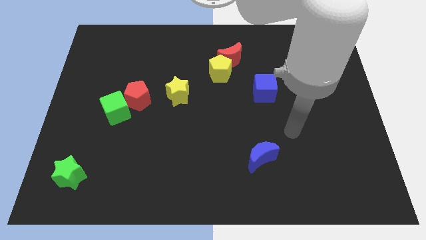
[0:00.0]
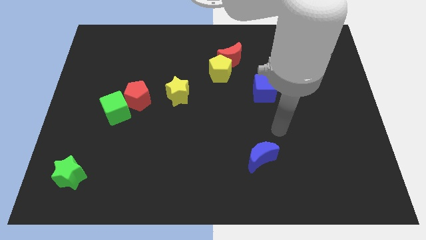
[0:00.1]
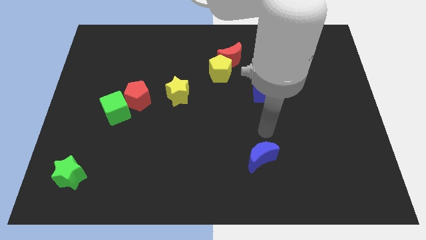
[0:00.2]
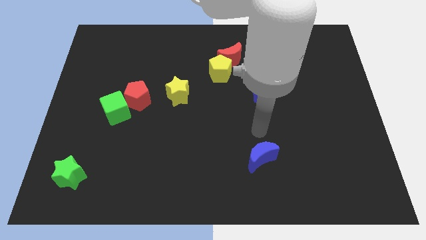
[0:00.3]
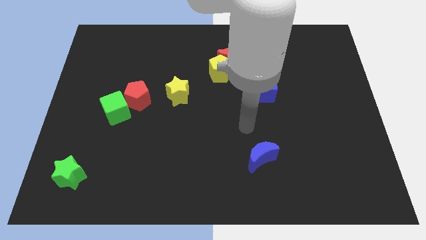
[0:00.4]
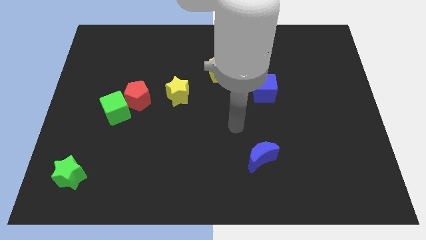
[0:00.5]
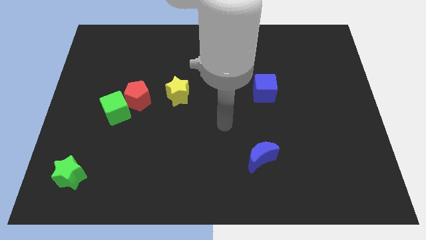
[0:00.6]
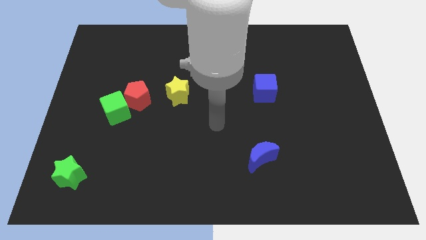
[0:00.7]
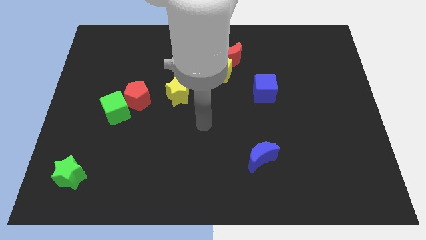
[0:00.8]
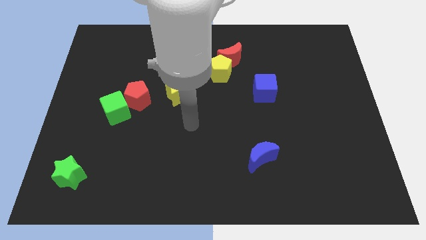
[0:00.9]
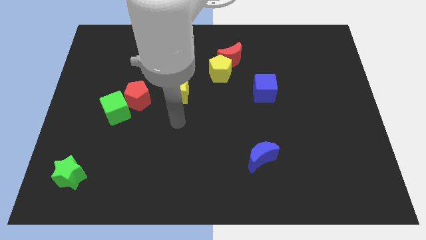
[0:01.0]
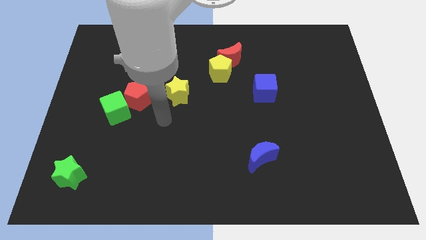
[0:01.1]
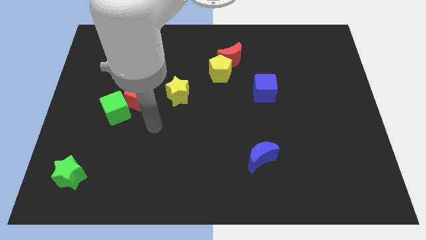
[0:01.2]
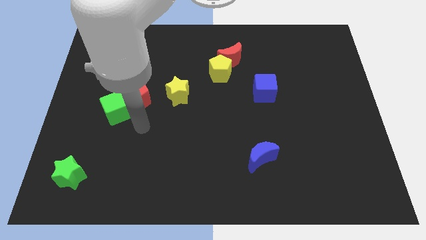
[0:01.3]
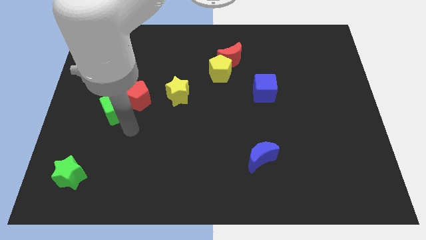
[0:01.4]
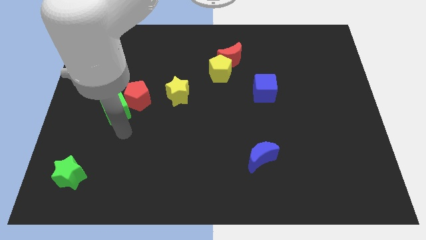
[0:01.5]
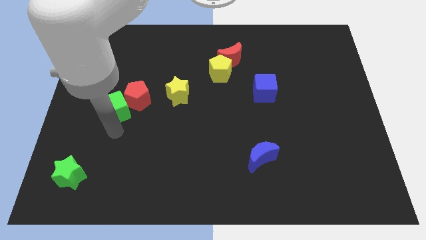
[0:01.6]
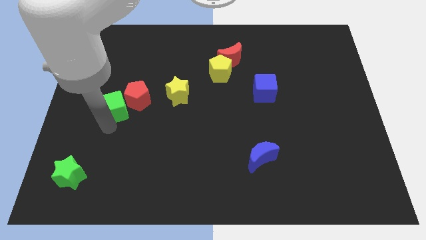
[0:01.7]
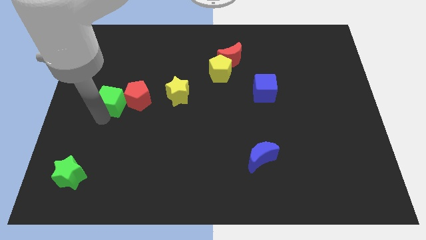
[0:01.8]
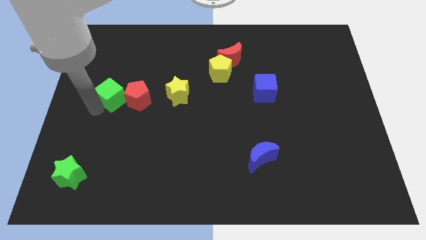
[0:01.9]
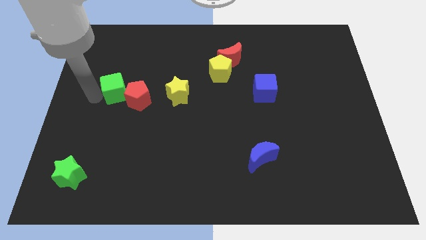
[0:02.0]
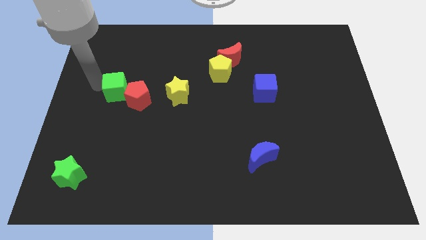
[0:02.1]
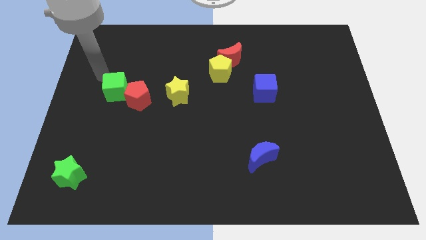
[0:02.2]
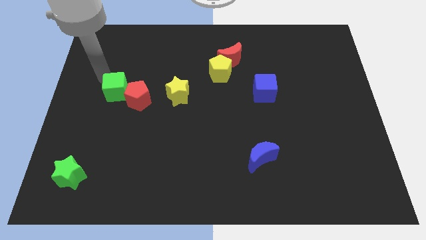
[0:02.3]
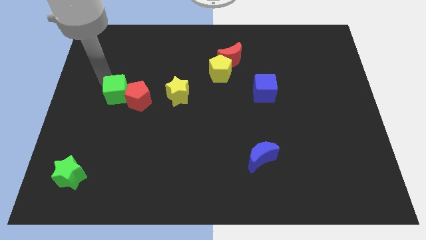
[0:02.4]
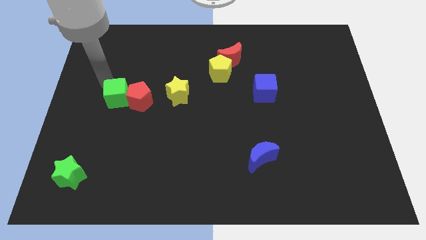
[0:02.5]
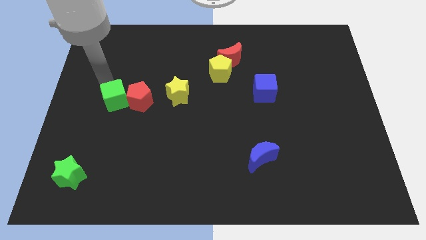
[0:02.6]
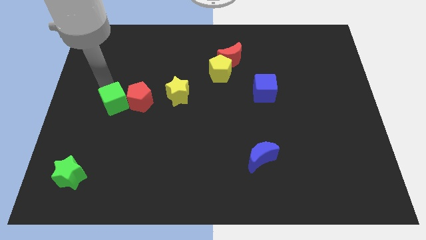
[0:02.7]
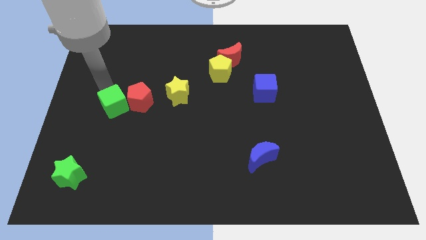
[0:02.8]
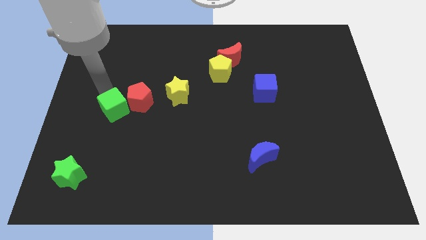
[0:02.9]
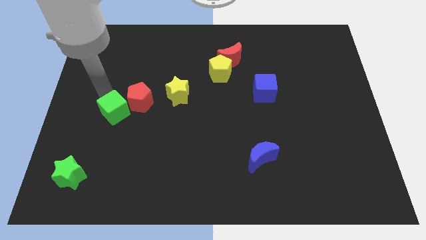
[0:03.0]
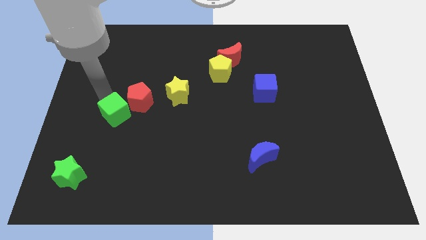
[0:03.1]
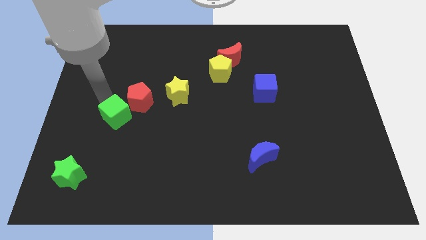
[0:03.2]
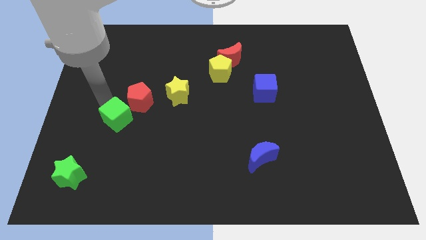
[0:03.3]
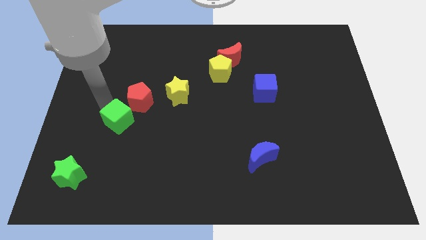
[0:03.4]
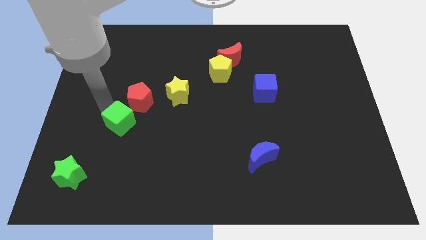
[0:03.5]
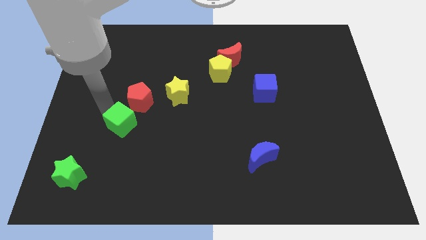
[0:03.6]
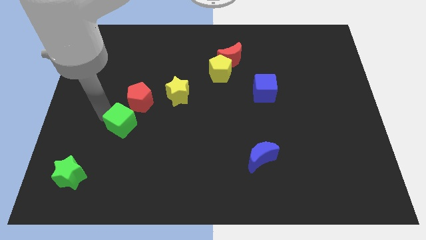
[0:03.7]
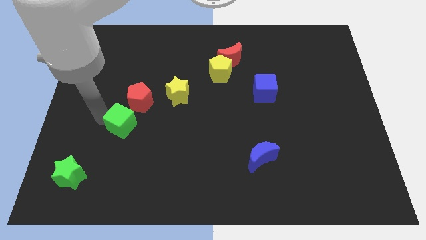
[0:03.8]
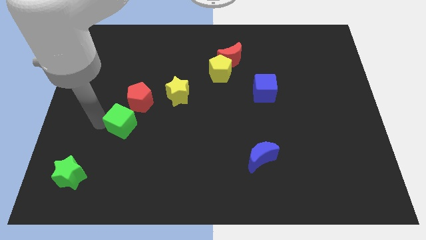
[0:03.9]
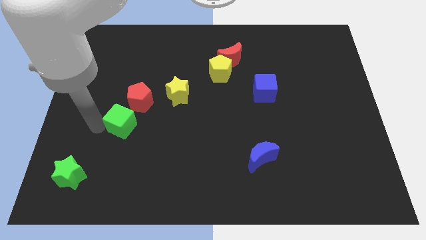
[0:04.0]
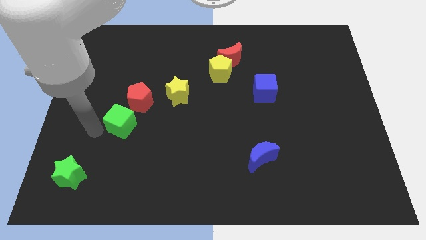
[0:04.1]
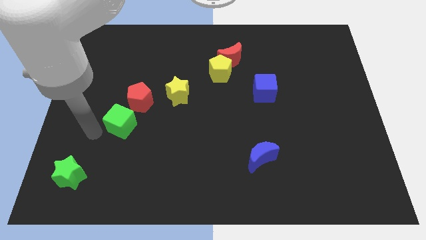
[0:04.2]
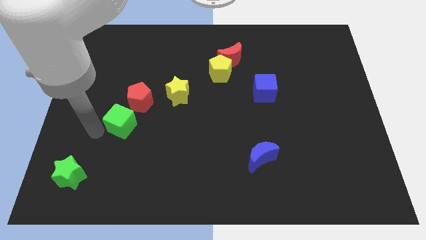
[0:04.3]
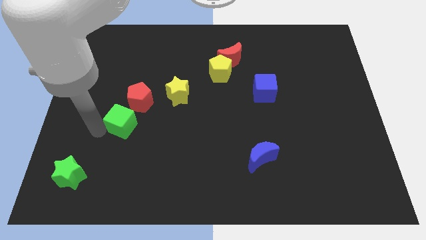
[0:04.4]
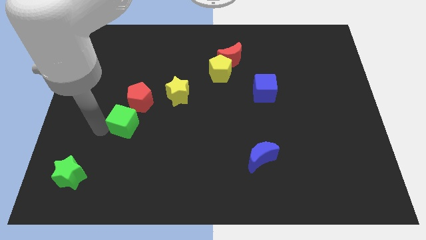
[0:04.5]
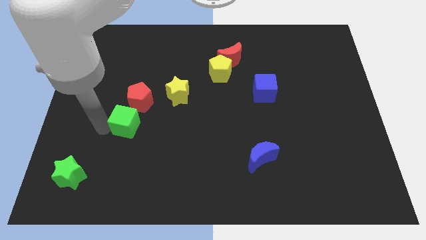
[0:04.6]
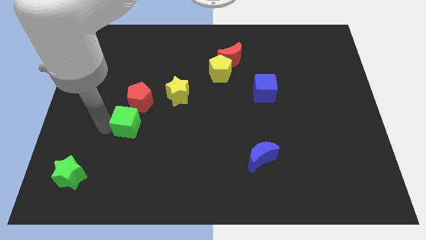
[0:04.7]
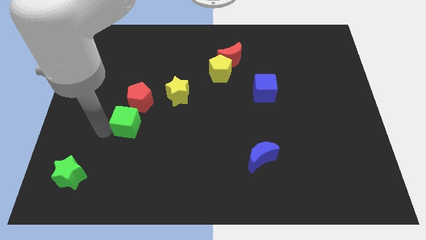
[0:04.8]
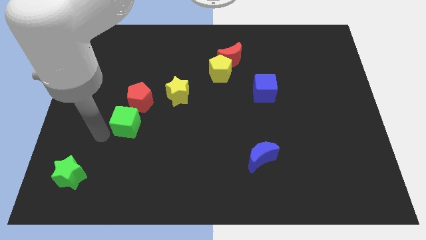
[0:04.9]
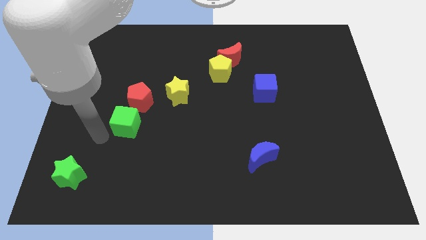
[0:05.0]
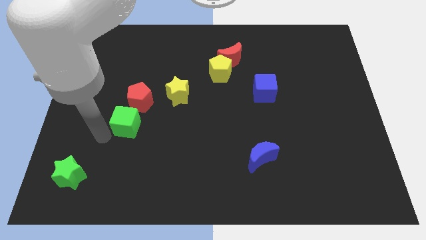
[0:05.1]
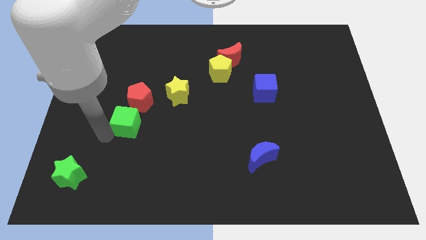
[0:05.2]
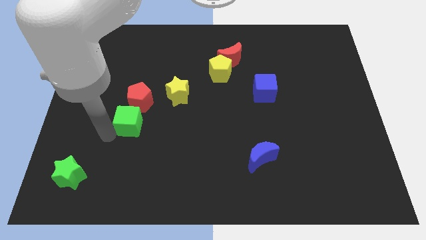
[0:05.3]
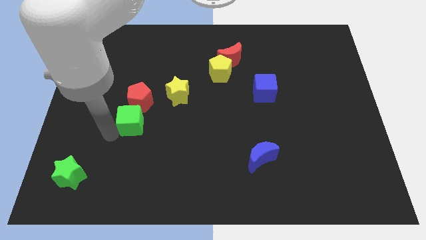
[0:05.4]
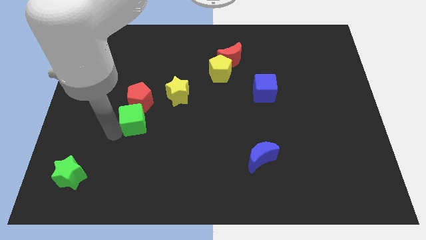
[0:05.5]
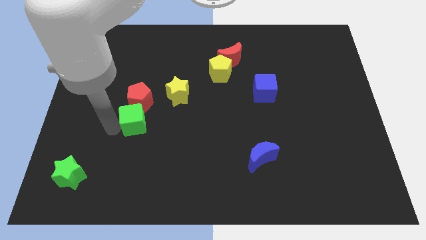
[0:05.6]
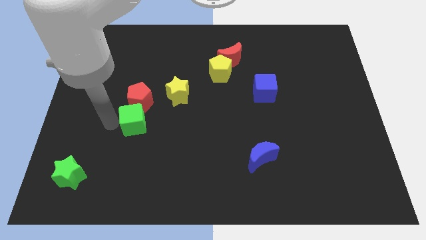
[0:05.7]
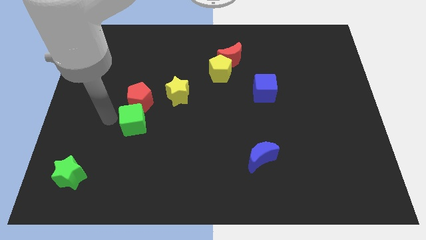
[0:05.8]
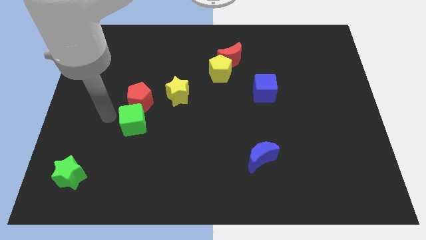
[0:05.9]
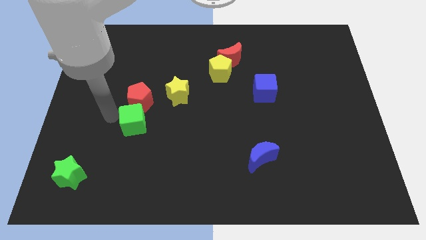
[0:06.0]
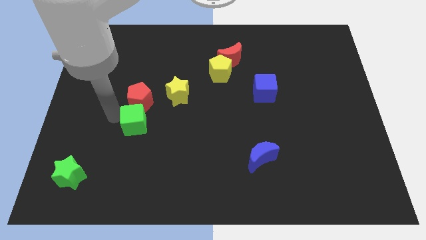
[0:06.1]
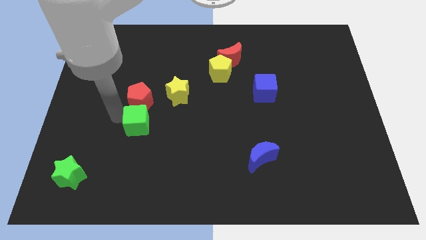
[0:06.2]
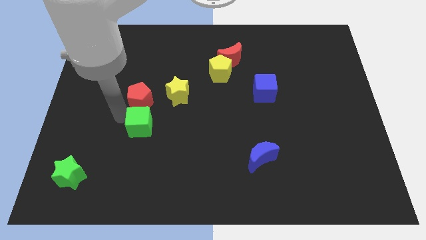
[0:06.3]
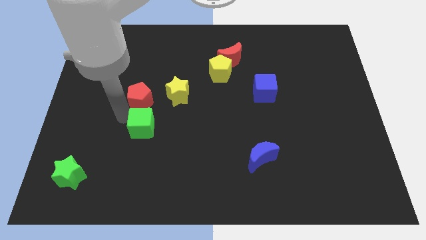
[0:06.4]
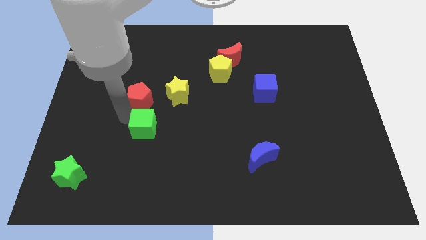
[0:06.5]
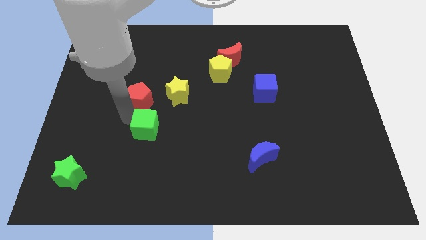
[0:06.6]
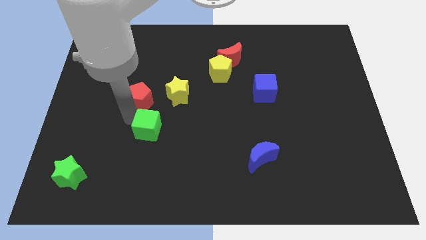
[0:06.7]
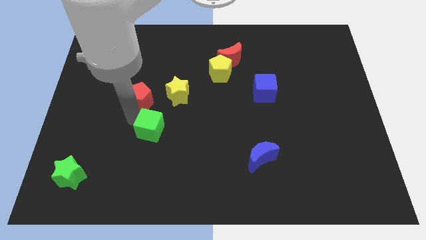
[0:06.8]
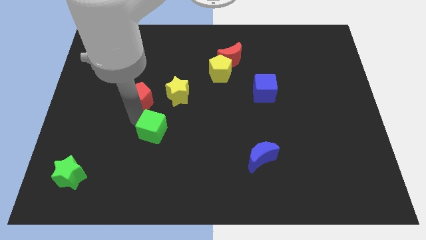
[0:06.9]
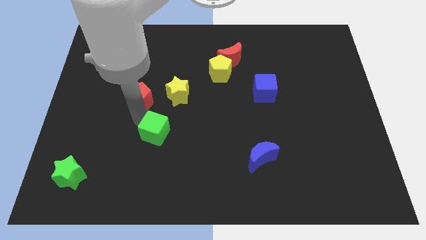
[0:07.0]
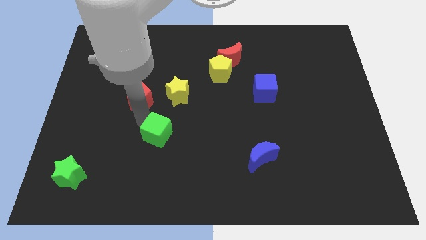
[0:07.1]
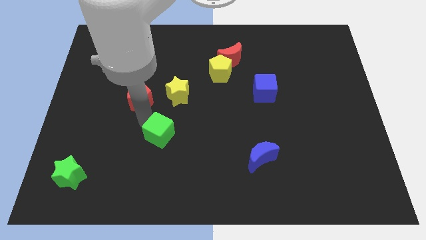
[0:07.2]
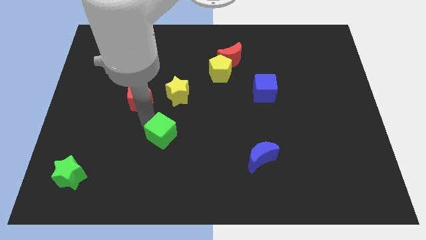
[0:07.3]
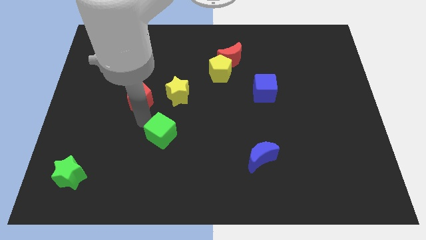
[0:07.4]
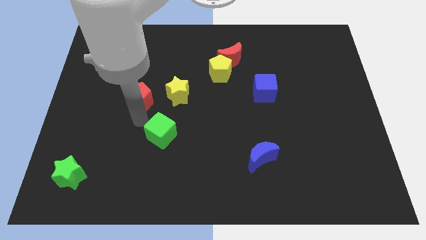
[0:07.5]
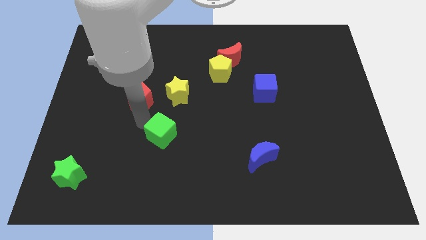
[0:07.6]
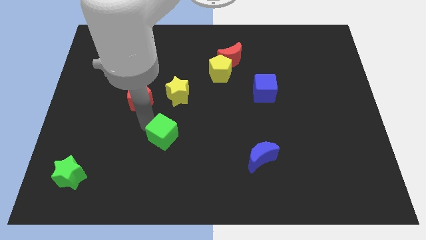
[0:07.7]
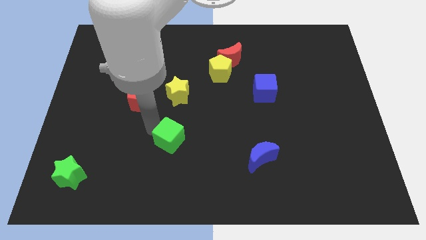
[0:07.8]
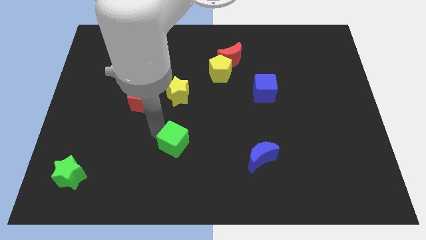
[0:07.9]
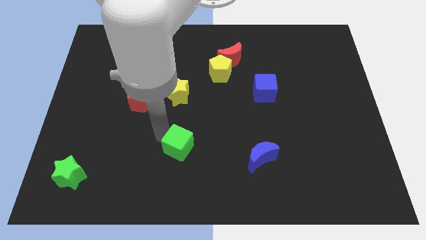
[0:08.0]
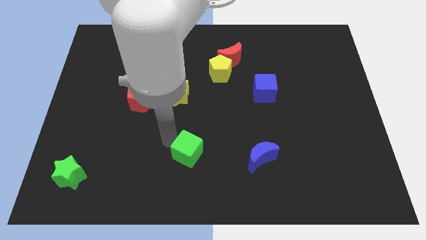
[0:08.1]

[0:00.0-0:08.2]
slide the green cube to the left side of the blue moon

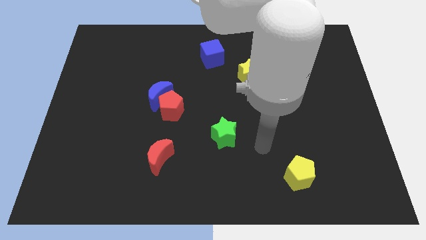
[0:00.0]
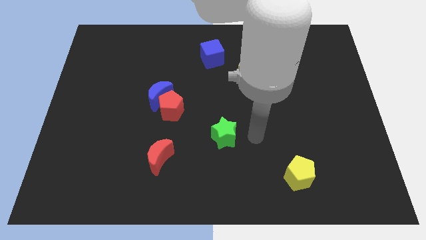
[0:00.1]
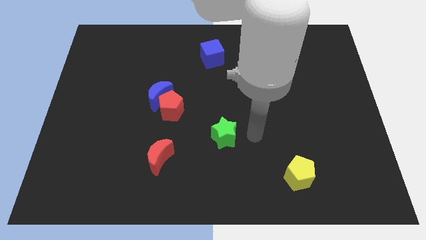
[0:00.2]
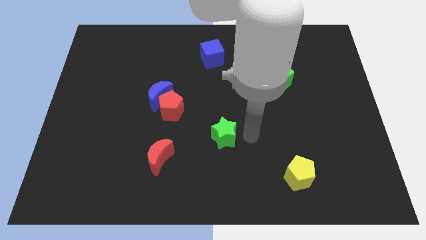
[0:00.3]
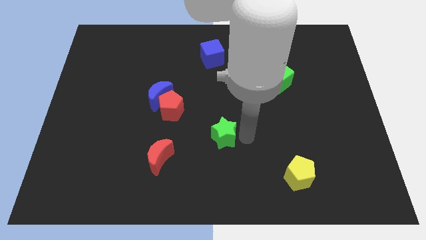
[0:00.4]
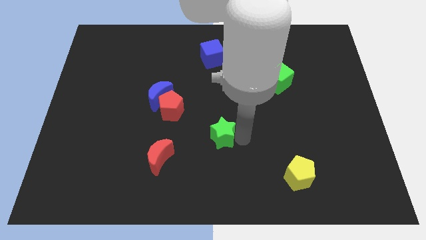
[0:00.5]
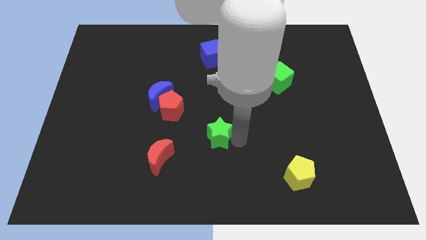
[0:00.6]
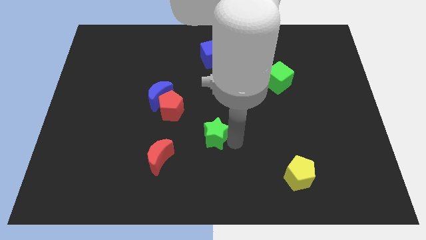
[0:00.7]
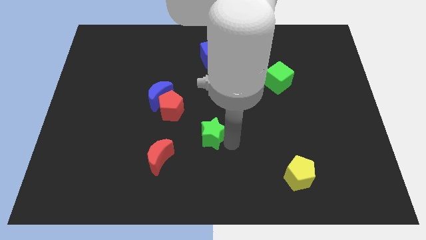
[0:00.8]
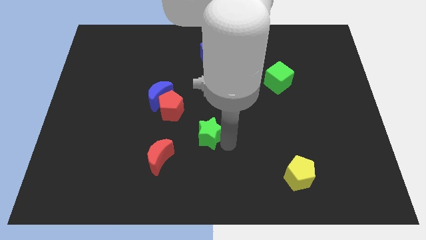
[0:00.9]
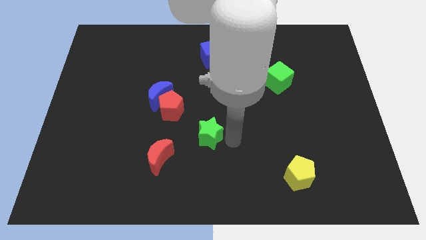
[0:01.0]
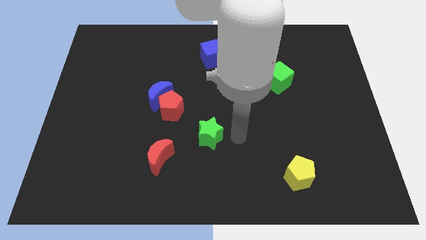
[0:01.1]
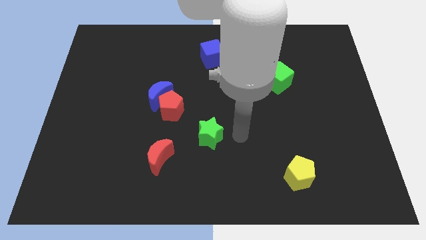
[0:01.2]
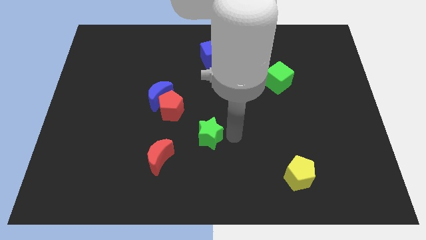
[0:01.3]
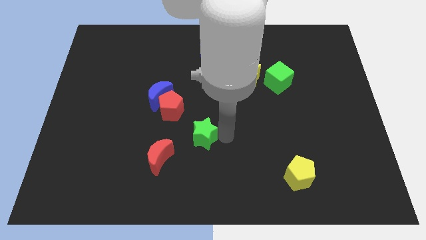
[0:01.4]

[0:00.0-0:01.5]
slide the green star to the top right of the red moon
